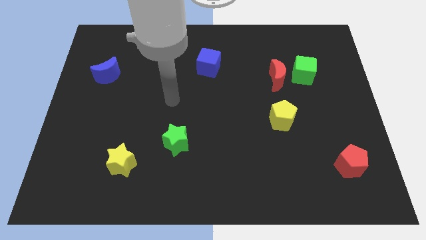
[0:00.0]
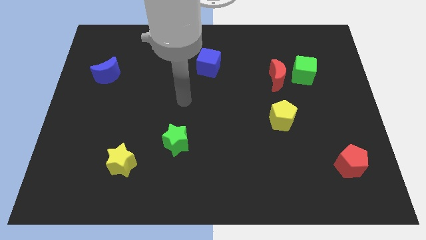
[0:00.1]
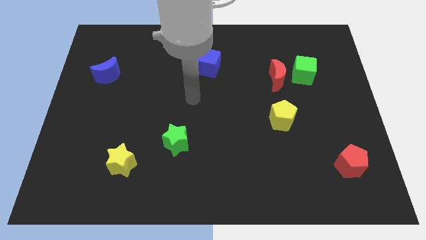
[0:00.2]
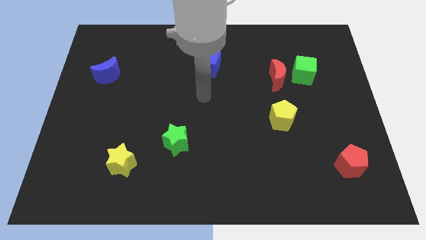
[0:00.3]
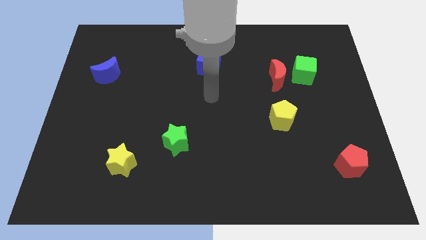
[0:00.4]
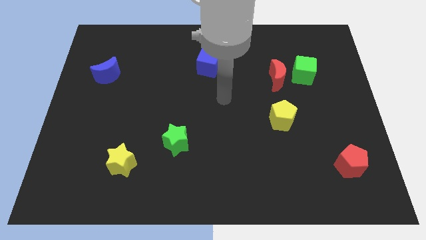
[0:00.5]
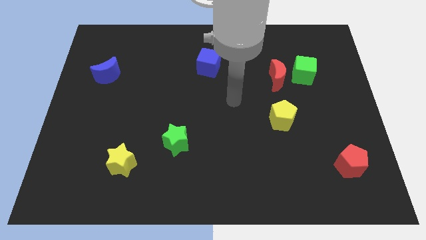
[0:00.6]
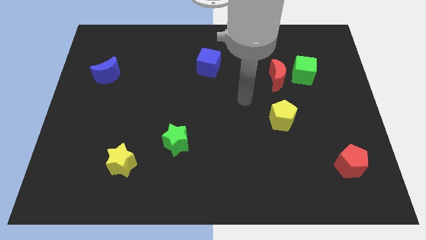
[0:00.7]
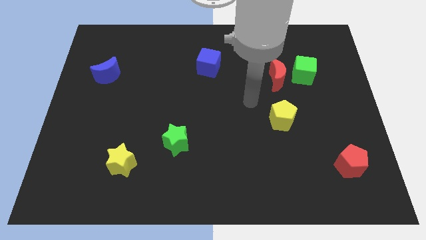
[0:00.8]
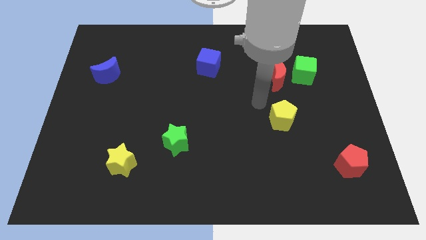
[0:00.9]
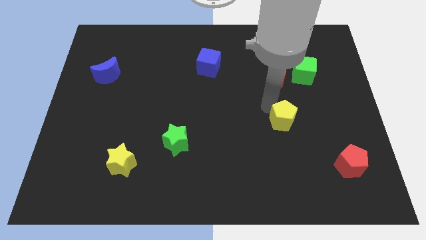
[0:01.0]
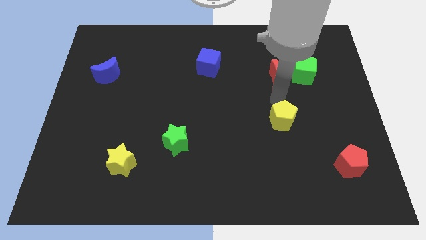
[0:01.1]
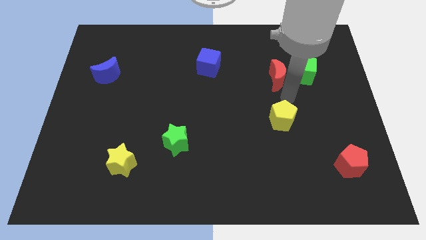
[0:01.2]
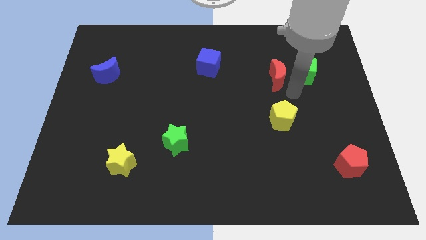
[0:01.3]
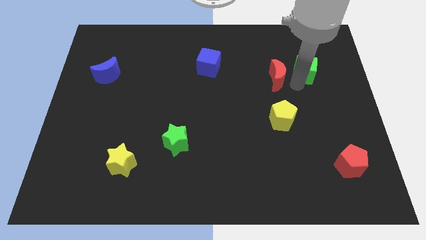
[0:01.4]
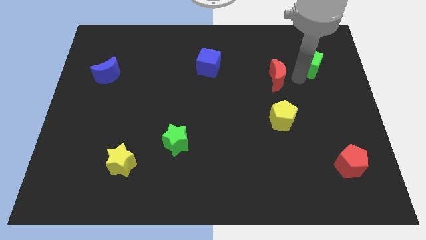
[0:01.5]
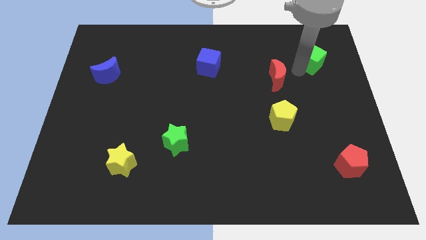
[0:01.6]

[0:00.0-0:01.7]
move the red moon away from the green cube

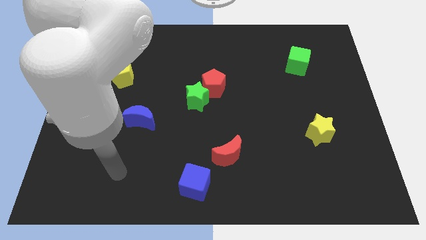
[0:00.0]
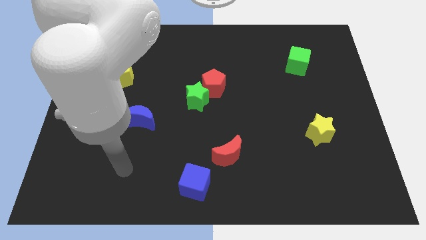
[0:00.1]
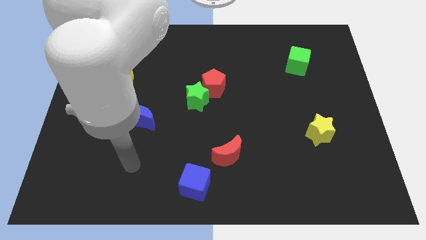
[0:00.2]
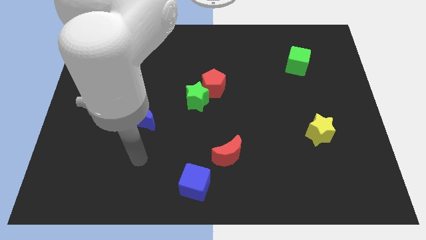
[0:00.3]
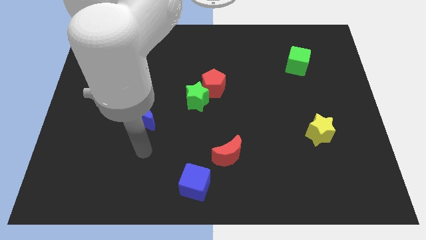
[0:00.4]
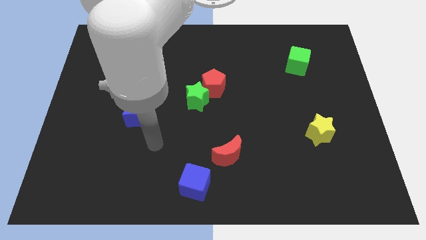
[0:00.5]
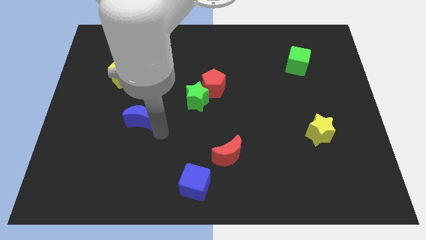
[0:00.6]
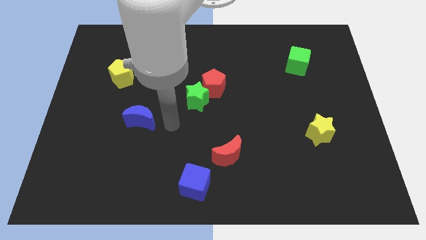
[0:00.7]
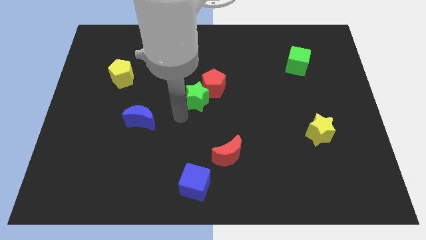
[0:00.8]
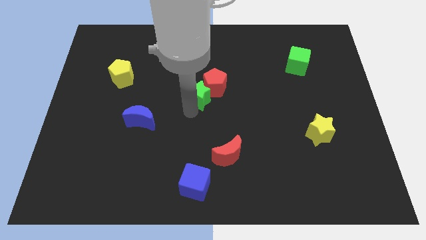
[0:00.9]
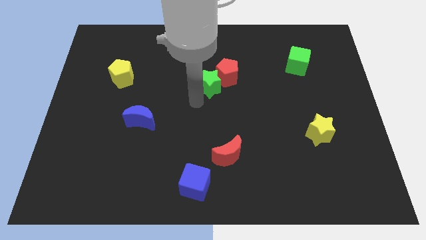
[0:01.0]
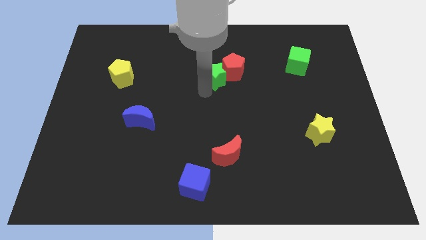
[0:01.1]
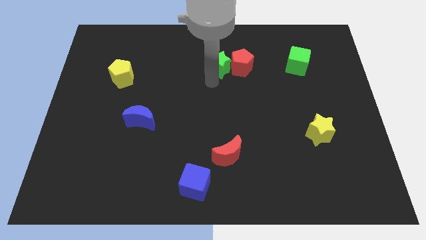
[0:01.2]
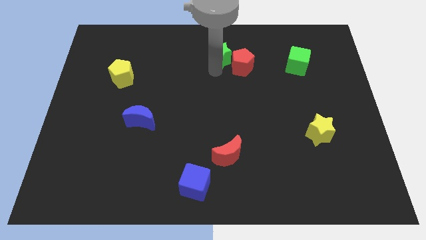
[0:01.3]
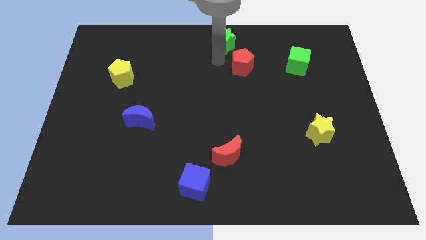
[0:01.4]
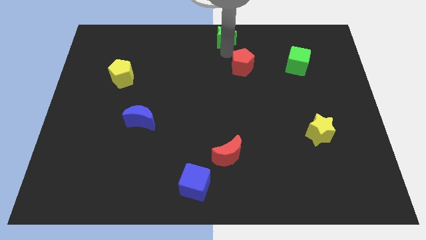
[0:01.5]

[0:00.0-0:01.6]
pull the red pentagon apart from the green star

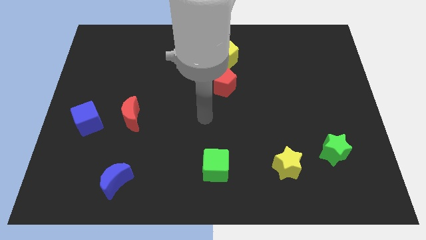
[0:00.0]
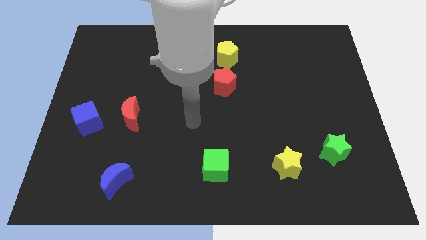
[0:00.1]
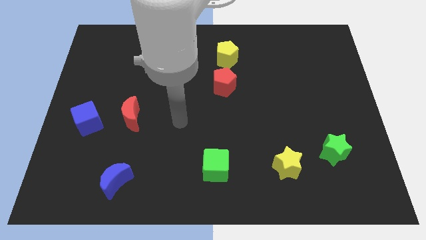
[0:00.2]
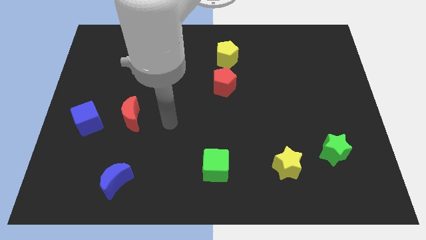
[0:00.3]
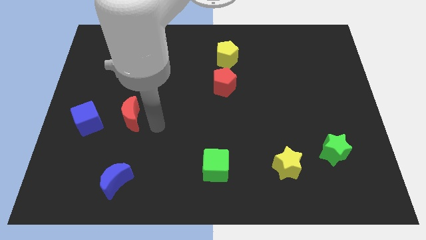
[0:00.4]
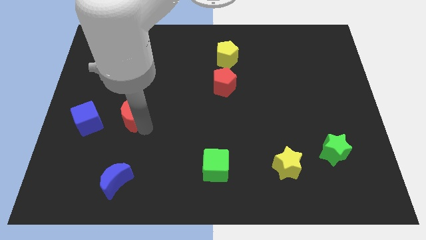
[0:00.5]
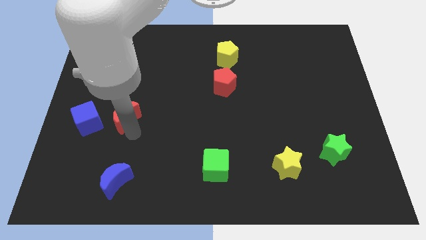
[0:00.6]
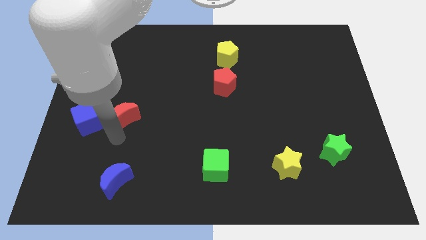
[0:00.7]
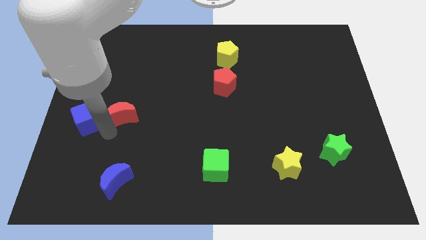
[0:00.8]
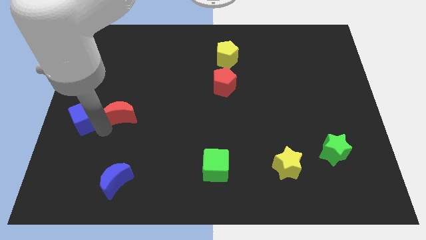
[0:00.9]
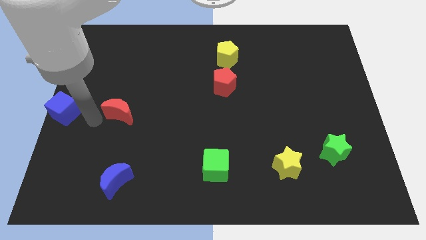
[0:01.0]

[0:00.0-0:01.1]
separate the red moon from the blue cube

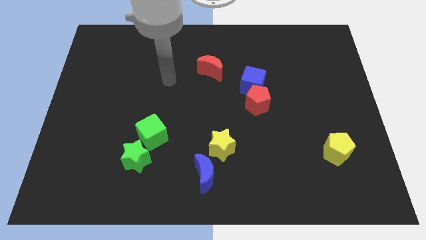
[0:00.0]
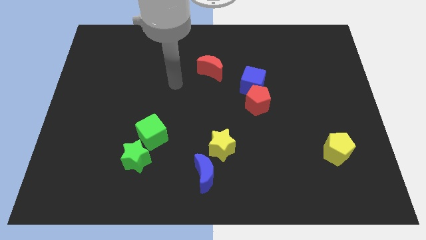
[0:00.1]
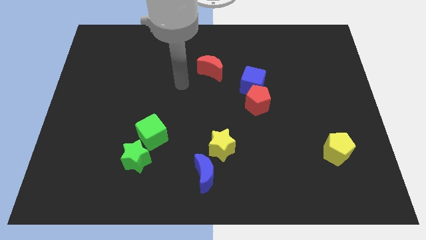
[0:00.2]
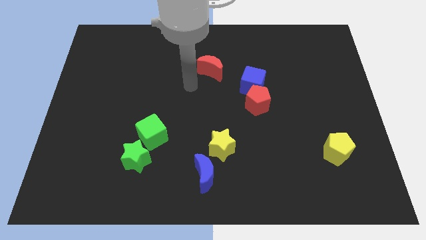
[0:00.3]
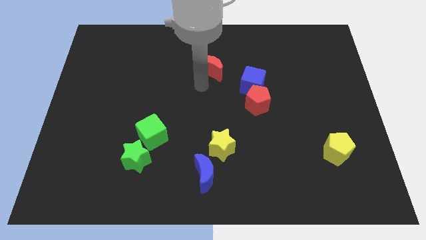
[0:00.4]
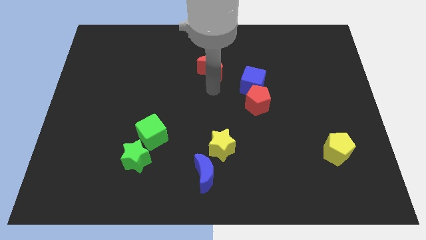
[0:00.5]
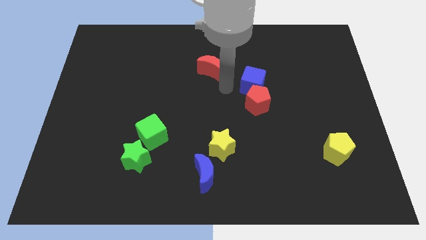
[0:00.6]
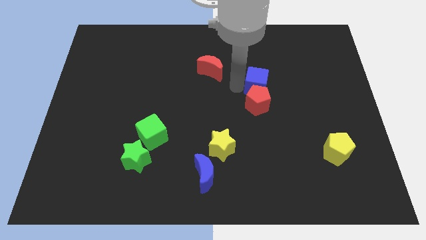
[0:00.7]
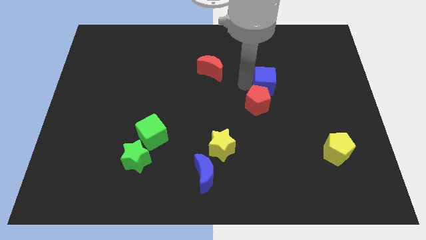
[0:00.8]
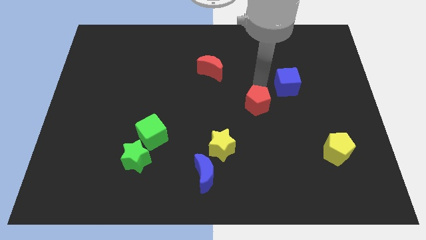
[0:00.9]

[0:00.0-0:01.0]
separate the red pentagon from the blue cube

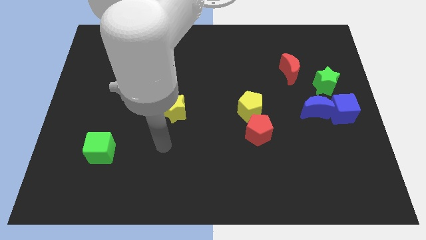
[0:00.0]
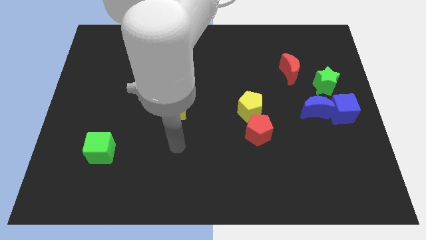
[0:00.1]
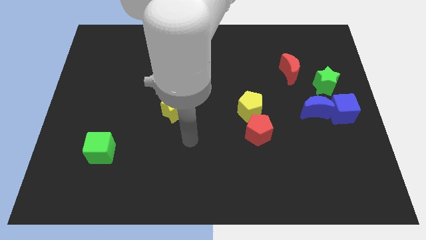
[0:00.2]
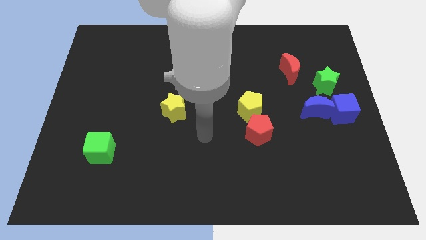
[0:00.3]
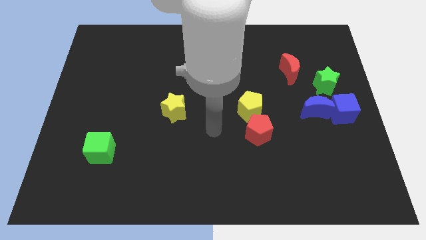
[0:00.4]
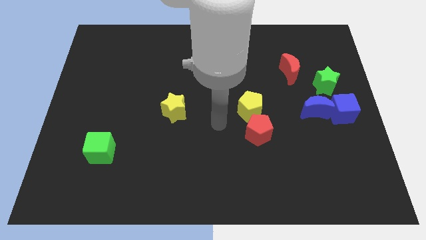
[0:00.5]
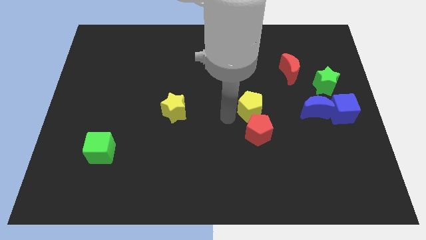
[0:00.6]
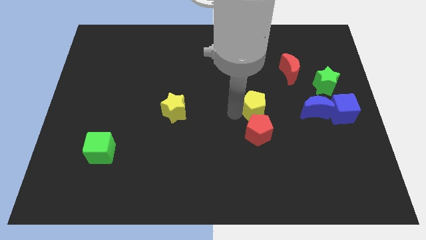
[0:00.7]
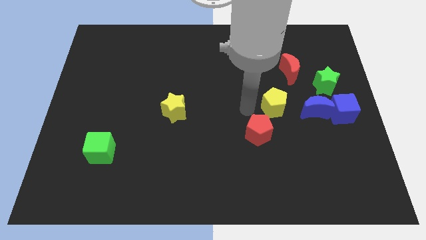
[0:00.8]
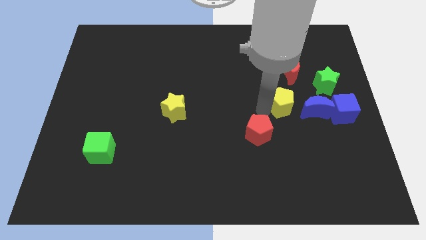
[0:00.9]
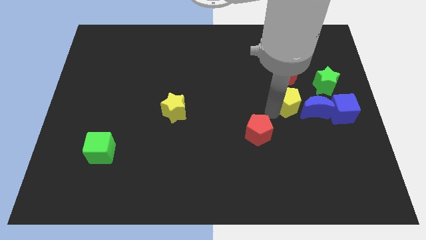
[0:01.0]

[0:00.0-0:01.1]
pull the red pentagon apart from the yellow pentagon

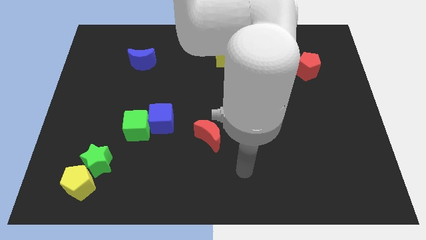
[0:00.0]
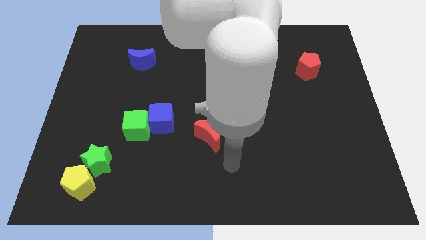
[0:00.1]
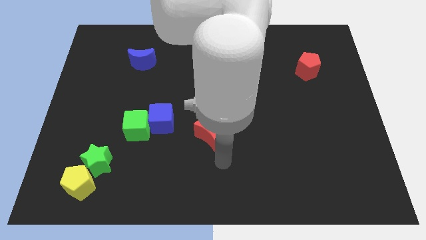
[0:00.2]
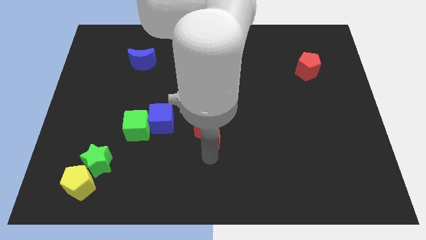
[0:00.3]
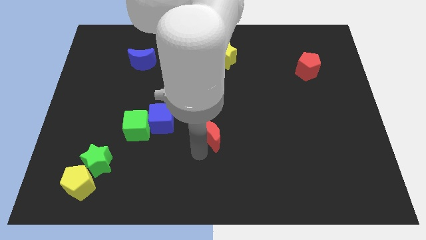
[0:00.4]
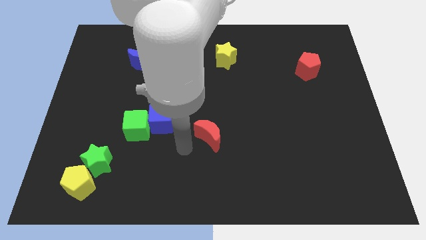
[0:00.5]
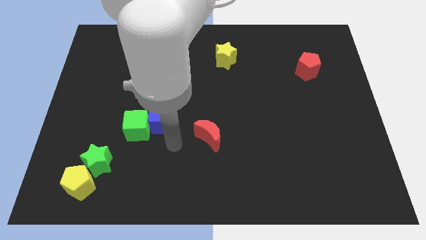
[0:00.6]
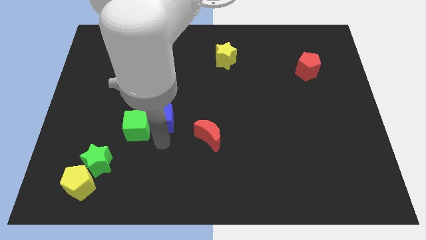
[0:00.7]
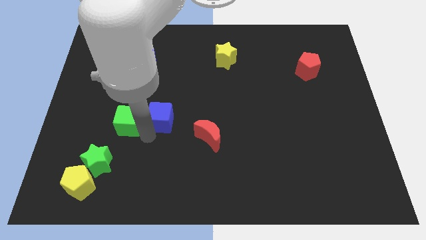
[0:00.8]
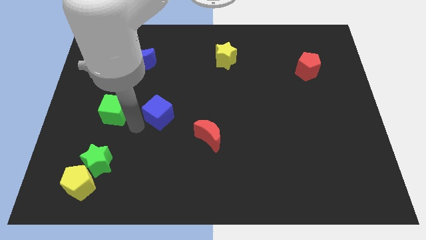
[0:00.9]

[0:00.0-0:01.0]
separate the blue cube from the green cube

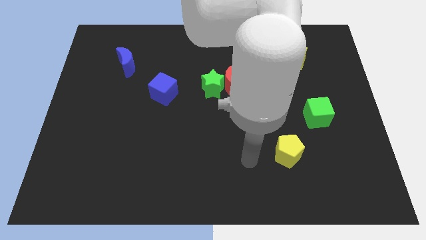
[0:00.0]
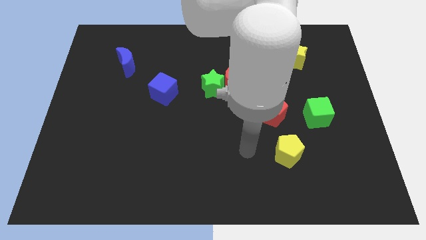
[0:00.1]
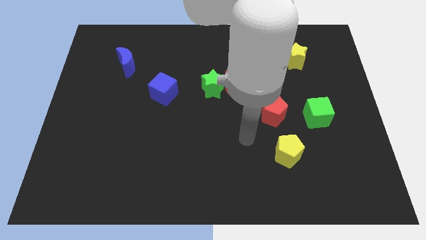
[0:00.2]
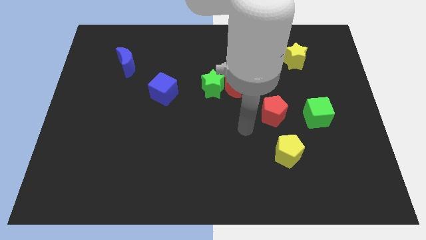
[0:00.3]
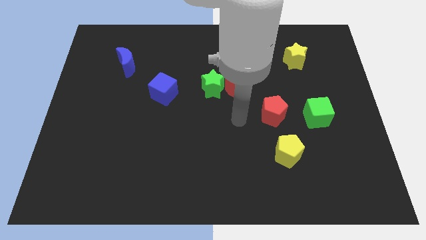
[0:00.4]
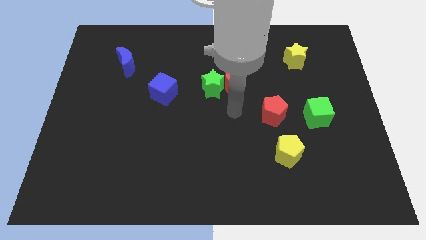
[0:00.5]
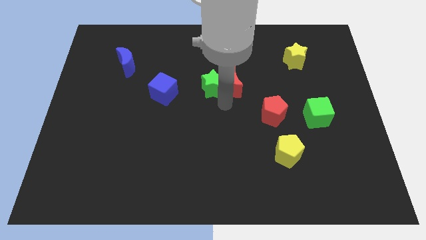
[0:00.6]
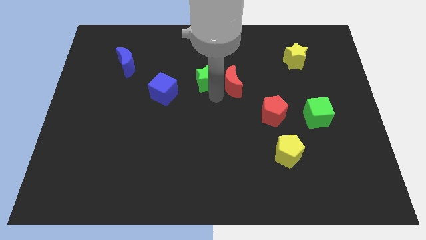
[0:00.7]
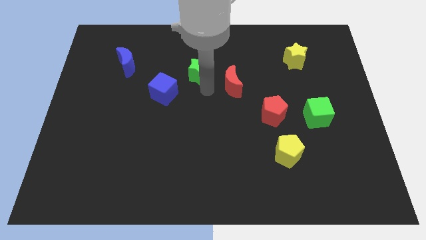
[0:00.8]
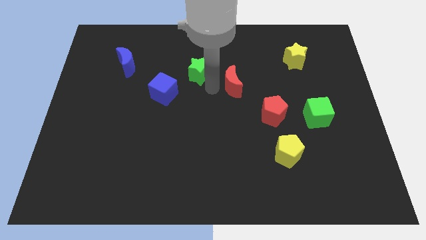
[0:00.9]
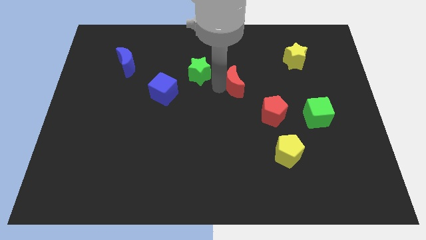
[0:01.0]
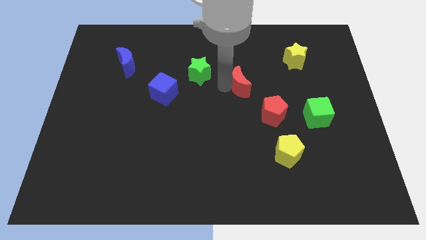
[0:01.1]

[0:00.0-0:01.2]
separate the red moon from the green star

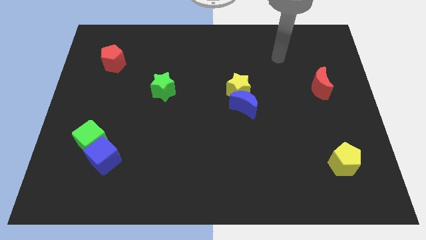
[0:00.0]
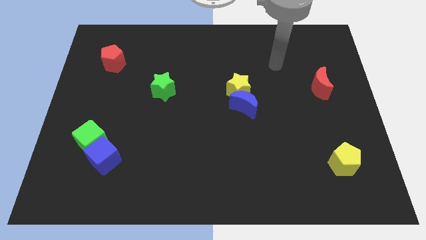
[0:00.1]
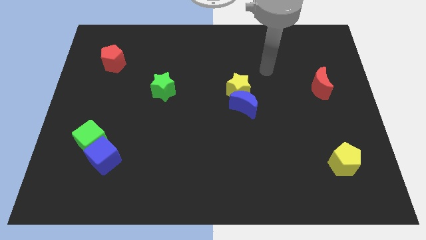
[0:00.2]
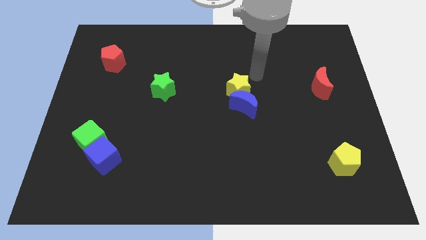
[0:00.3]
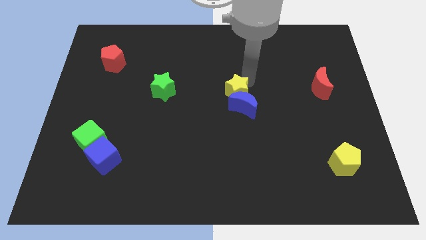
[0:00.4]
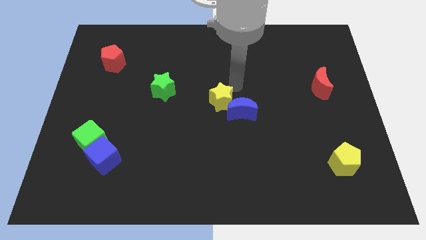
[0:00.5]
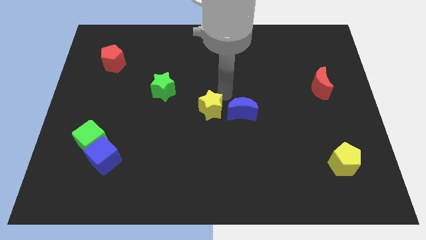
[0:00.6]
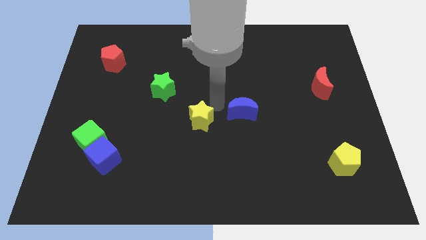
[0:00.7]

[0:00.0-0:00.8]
separate the blue moon from the yellow star

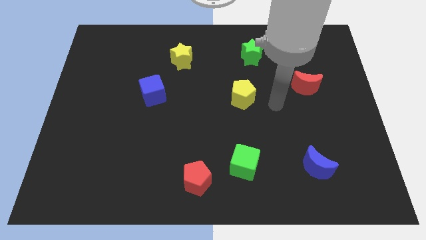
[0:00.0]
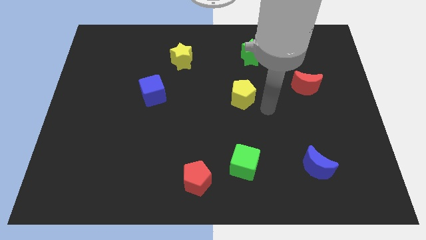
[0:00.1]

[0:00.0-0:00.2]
pull the red pentagon apart from the green cube
